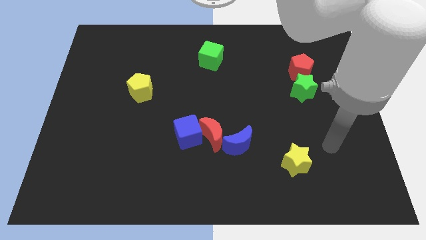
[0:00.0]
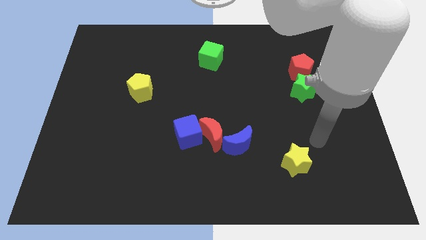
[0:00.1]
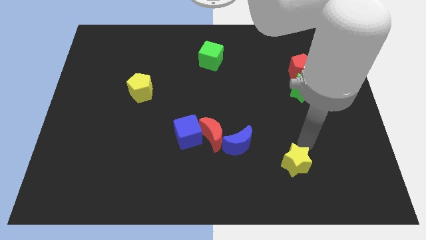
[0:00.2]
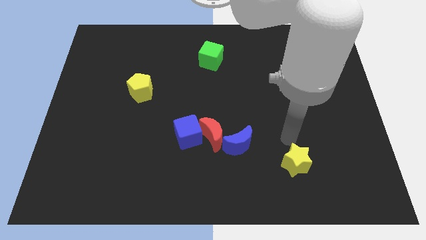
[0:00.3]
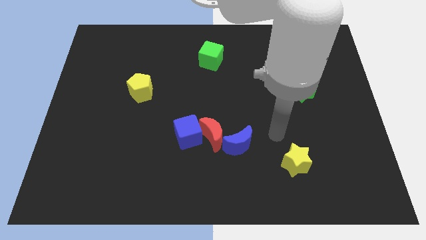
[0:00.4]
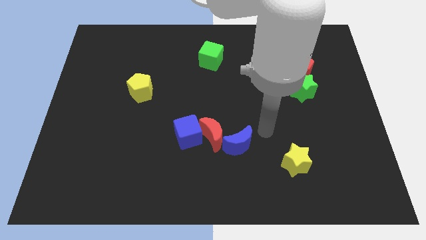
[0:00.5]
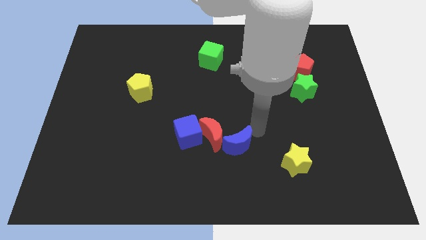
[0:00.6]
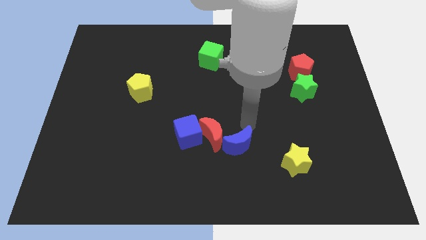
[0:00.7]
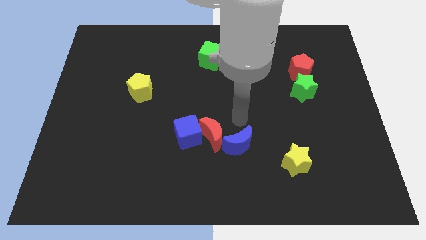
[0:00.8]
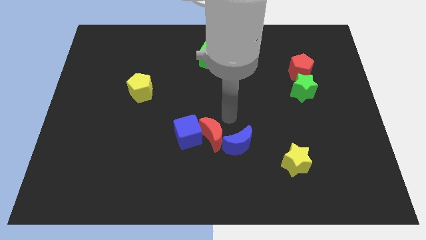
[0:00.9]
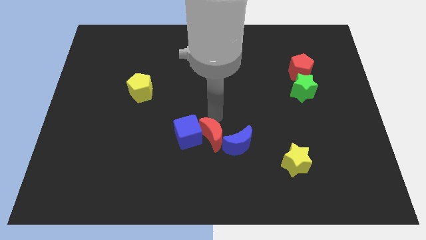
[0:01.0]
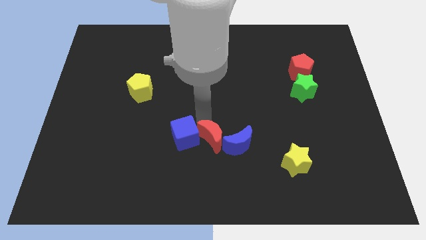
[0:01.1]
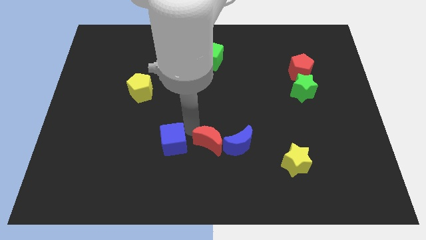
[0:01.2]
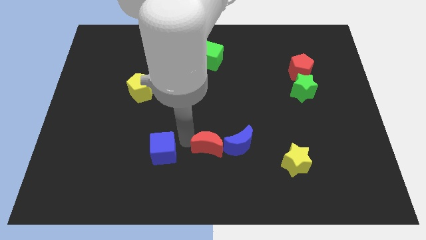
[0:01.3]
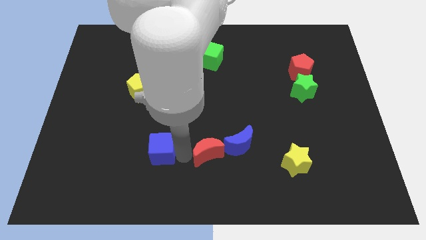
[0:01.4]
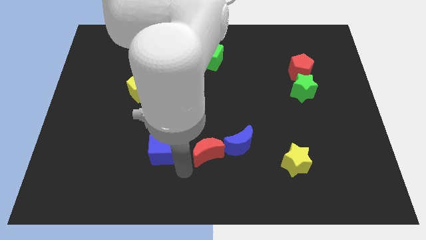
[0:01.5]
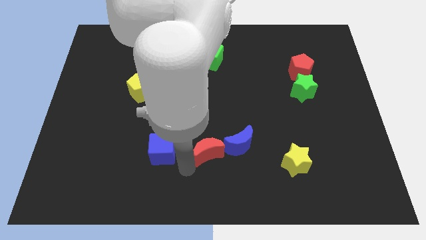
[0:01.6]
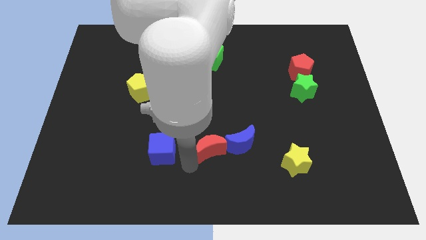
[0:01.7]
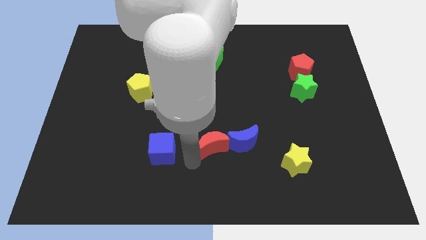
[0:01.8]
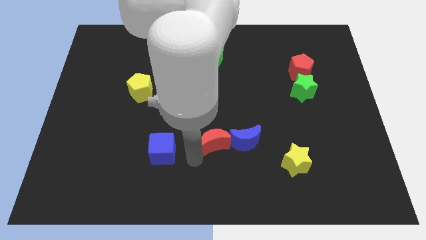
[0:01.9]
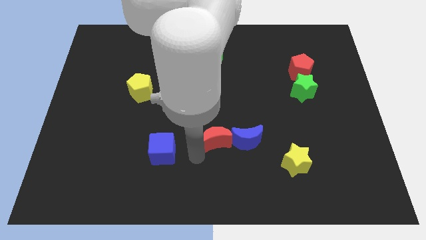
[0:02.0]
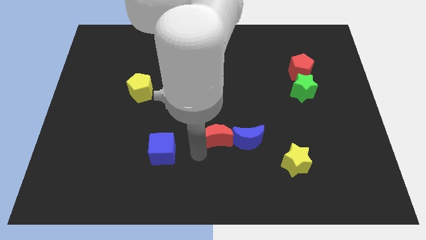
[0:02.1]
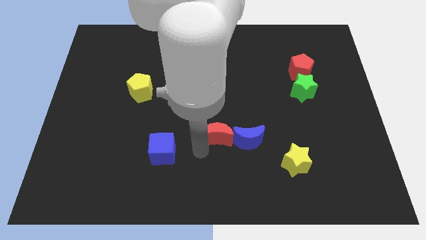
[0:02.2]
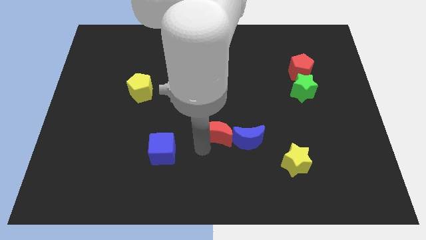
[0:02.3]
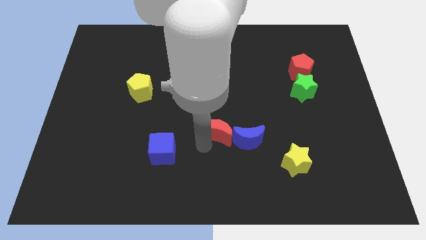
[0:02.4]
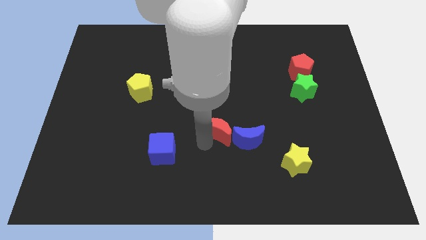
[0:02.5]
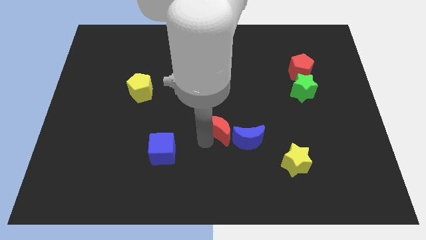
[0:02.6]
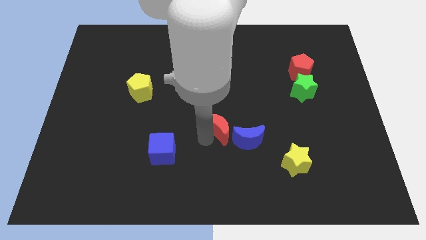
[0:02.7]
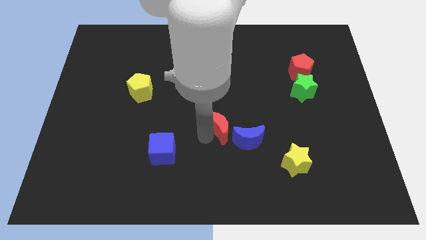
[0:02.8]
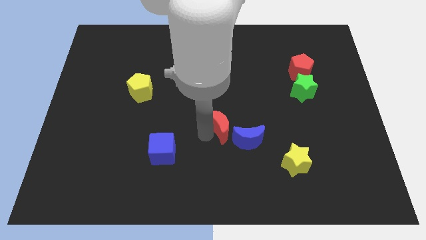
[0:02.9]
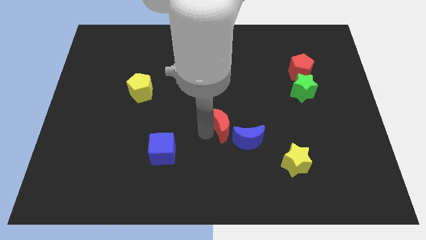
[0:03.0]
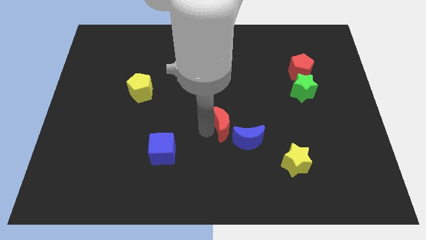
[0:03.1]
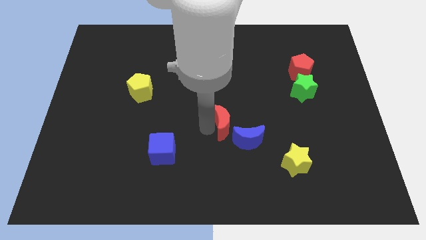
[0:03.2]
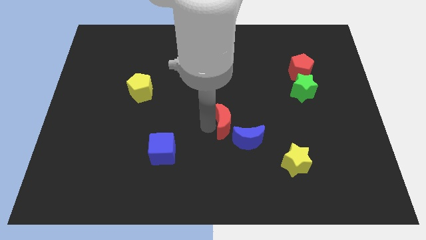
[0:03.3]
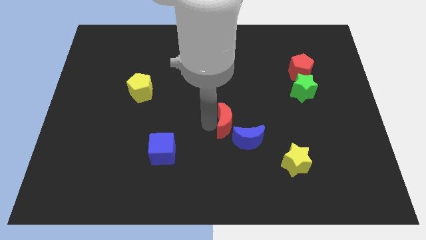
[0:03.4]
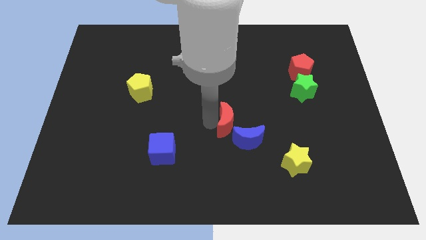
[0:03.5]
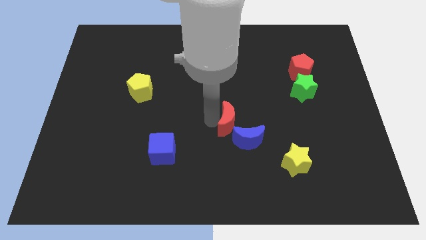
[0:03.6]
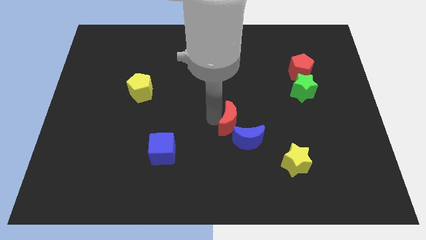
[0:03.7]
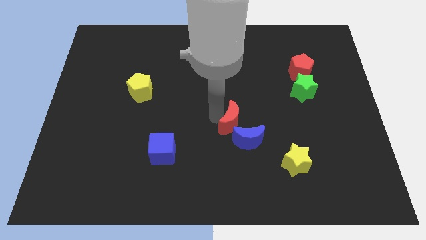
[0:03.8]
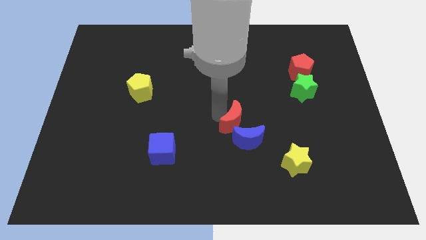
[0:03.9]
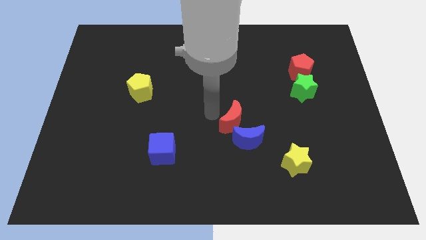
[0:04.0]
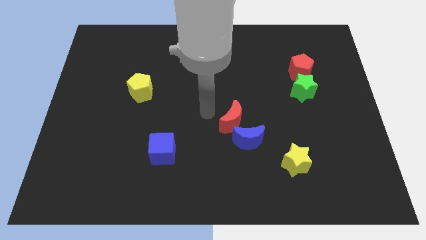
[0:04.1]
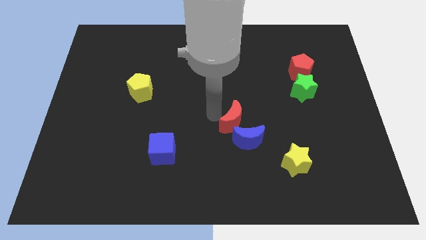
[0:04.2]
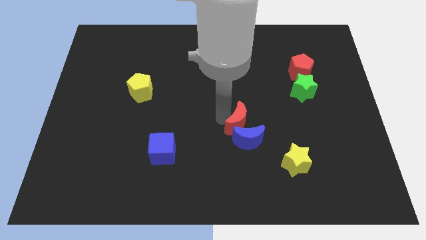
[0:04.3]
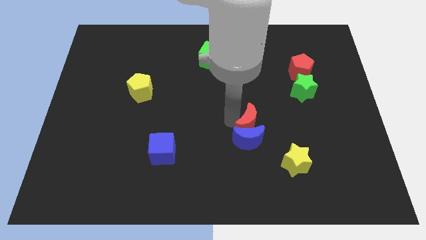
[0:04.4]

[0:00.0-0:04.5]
push the red moon a little bit right

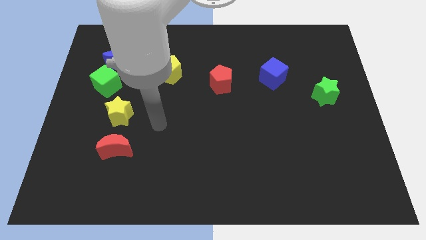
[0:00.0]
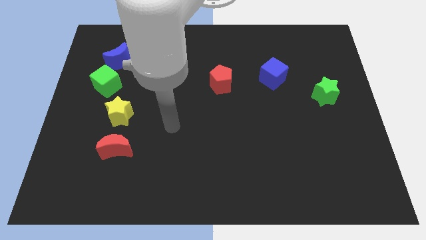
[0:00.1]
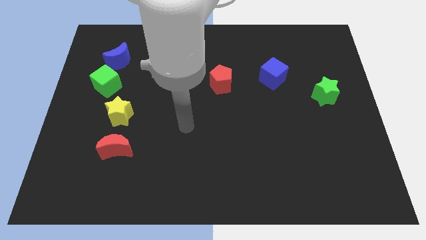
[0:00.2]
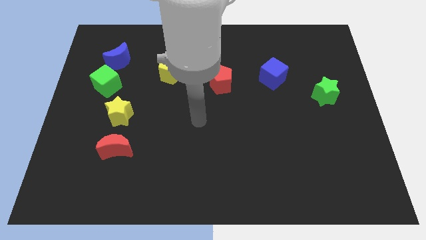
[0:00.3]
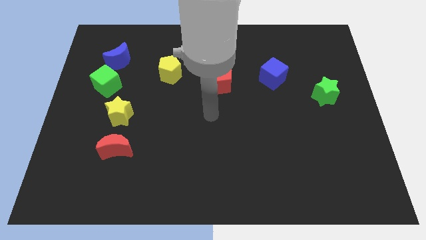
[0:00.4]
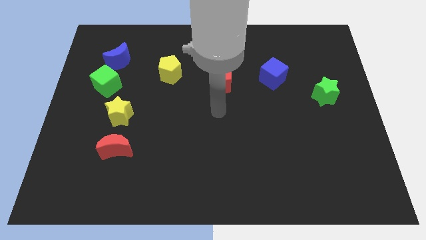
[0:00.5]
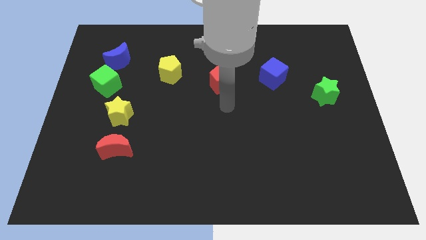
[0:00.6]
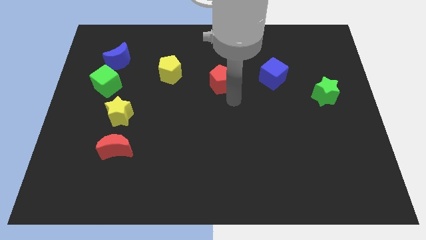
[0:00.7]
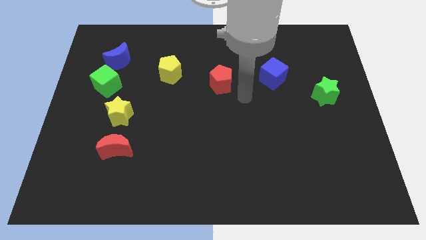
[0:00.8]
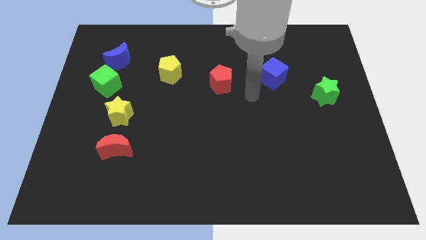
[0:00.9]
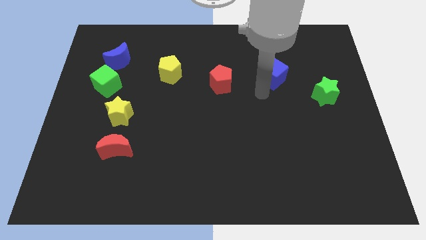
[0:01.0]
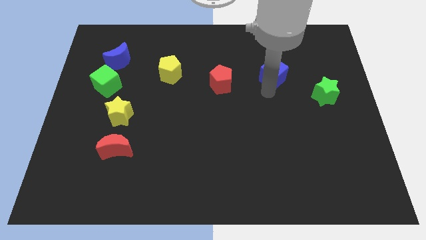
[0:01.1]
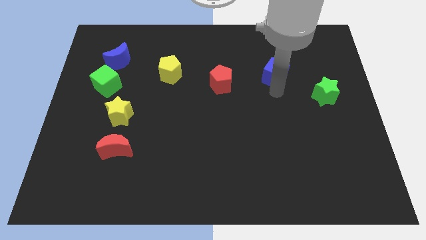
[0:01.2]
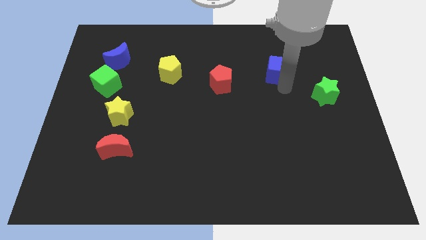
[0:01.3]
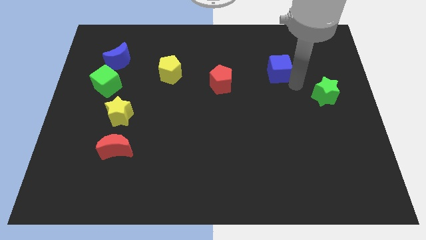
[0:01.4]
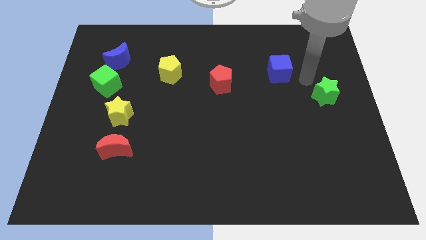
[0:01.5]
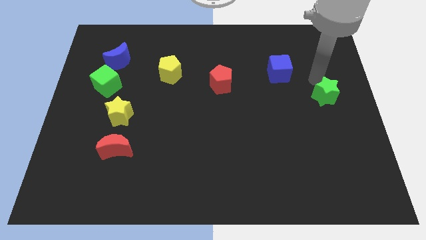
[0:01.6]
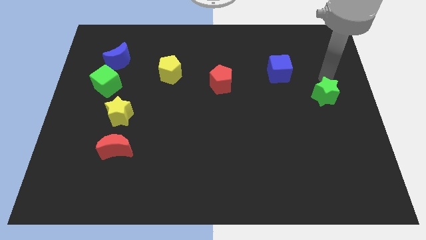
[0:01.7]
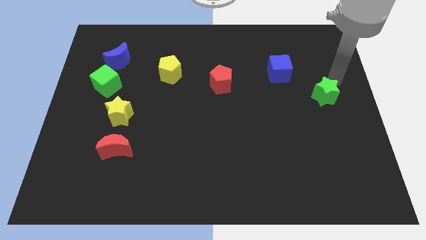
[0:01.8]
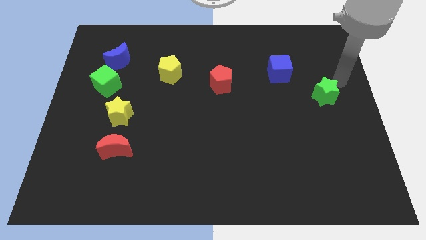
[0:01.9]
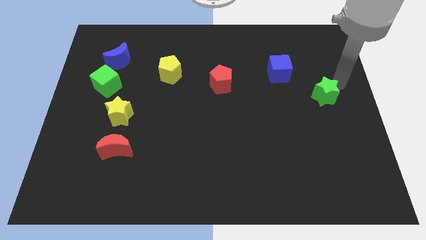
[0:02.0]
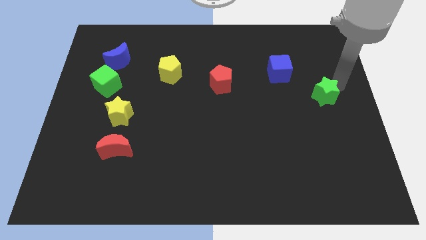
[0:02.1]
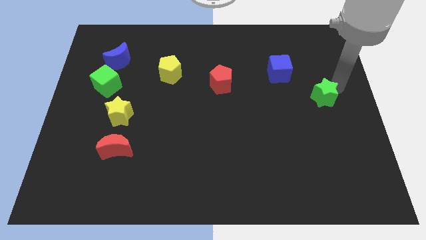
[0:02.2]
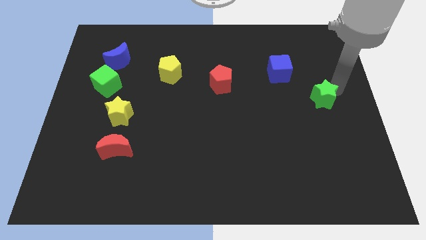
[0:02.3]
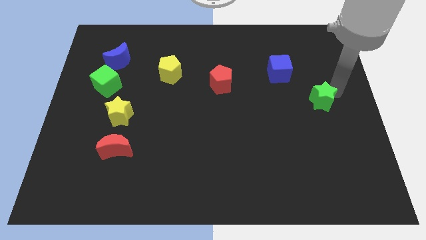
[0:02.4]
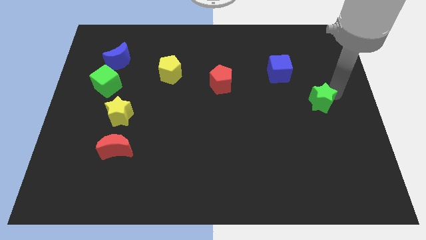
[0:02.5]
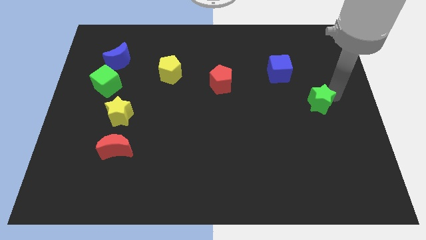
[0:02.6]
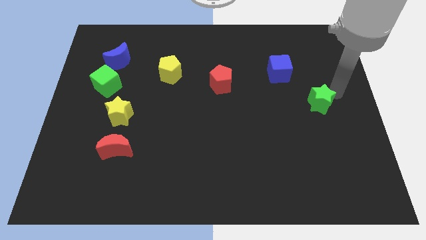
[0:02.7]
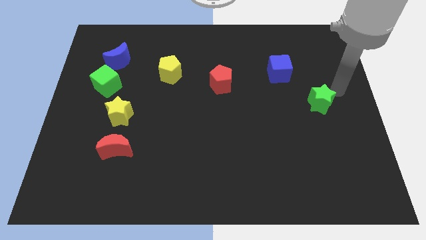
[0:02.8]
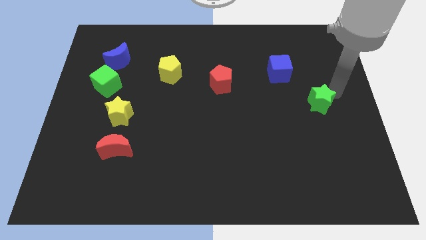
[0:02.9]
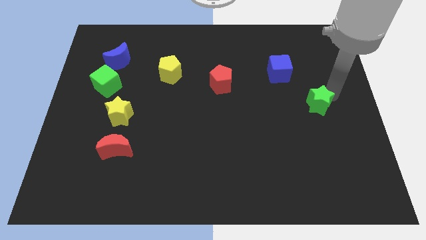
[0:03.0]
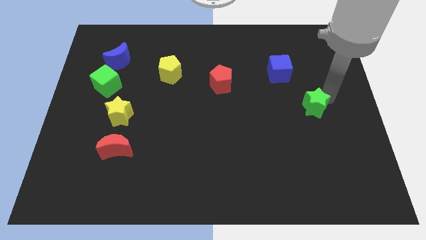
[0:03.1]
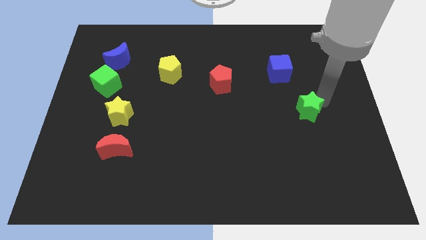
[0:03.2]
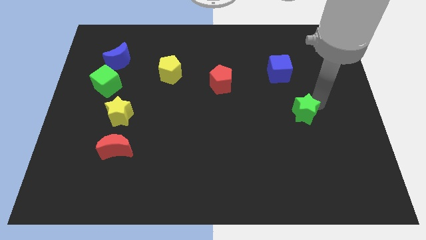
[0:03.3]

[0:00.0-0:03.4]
move the green star somewhat down and to the left
